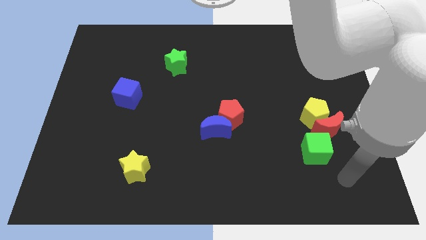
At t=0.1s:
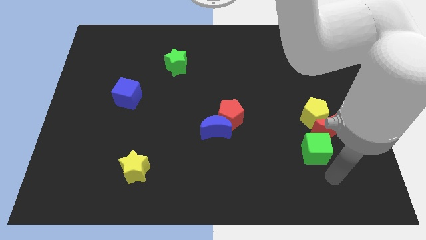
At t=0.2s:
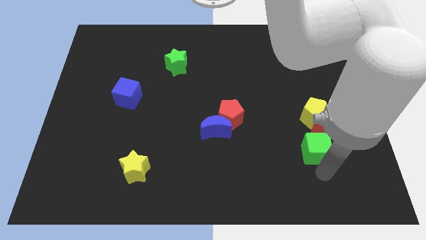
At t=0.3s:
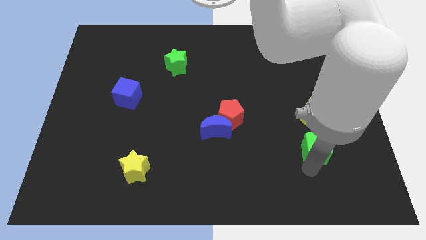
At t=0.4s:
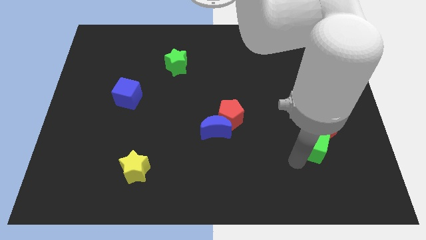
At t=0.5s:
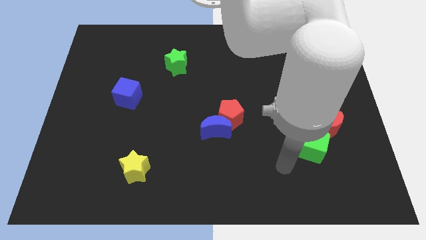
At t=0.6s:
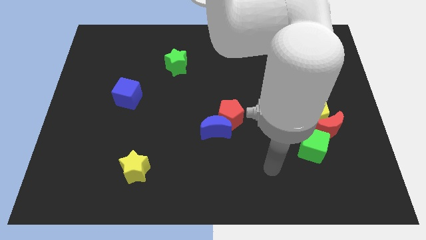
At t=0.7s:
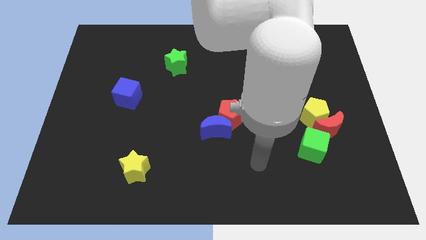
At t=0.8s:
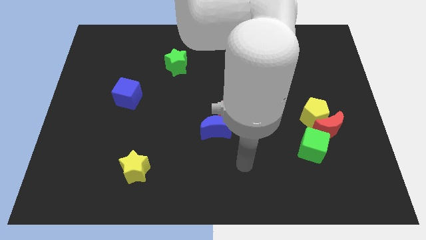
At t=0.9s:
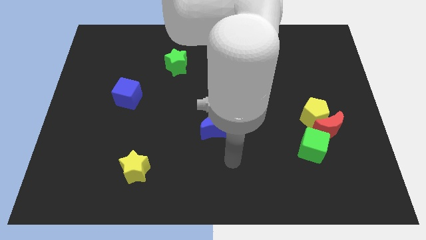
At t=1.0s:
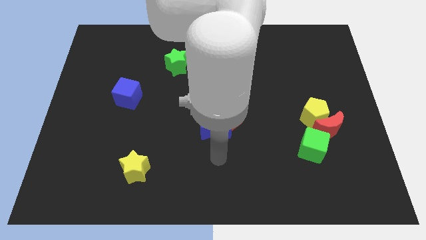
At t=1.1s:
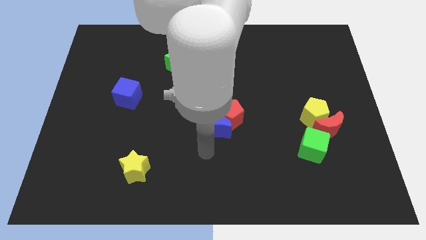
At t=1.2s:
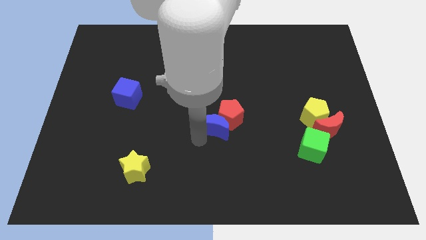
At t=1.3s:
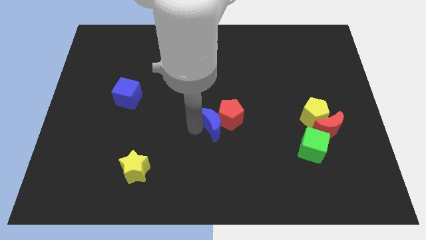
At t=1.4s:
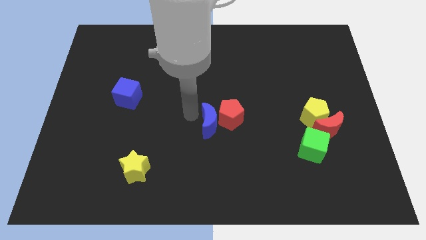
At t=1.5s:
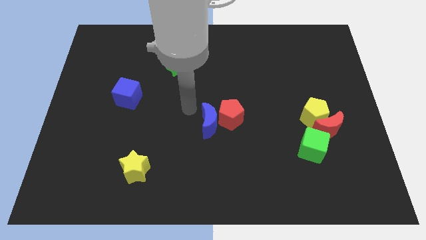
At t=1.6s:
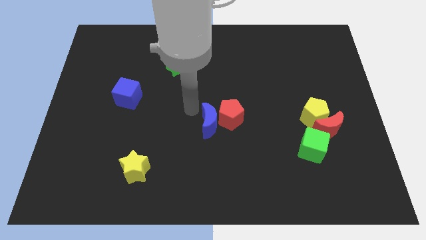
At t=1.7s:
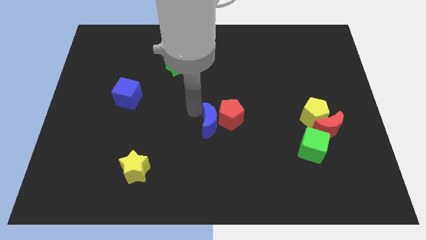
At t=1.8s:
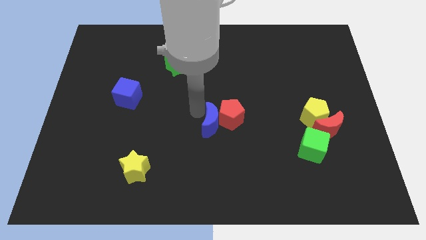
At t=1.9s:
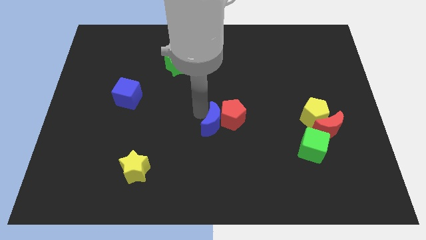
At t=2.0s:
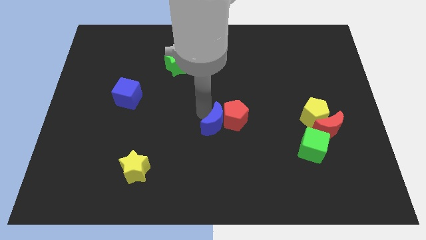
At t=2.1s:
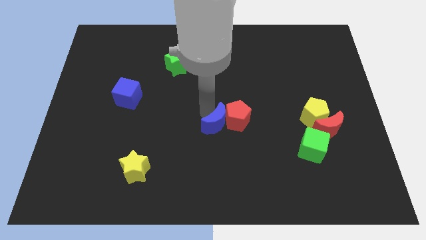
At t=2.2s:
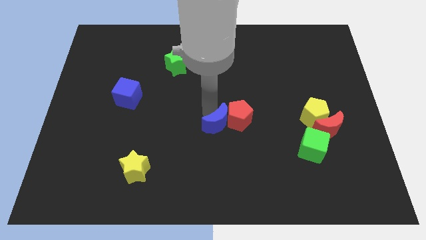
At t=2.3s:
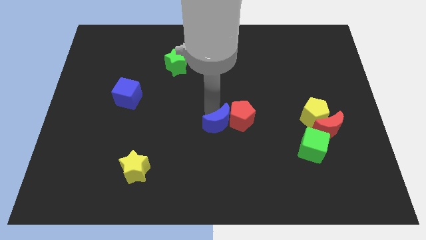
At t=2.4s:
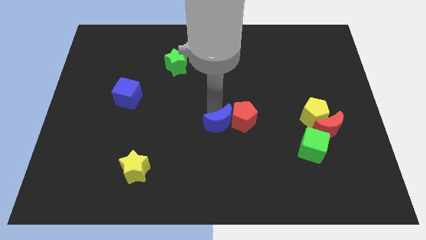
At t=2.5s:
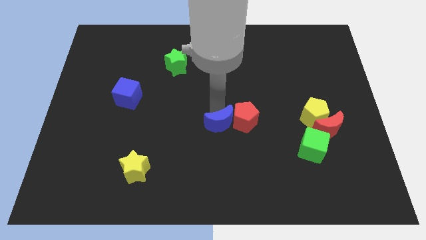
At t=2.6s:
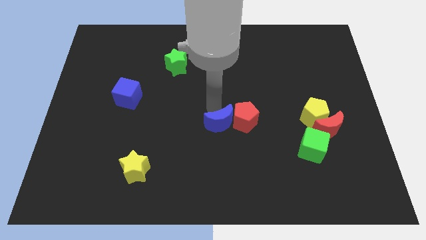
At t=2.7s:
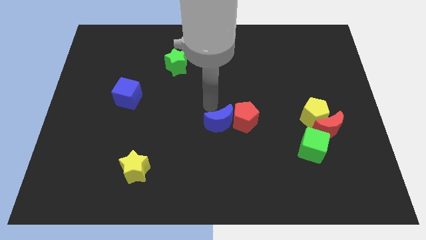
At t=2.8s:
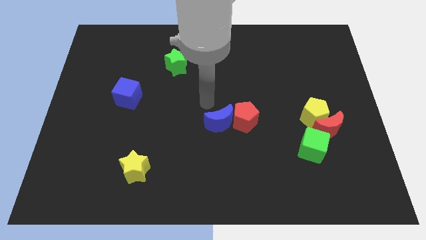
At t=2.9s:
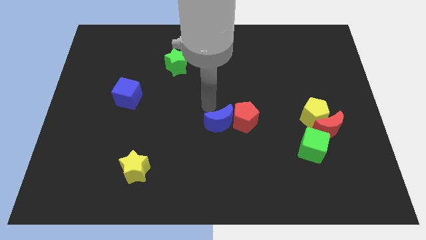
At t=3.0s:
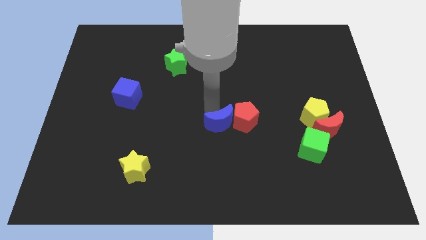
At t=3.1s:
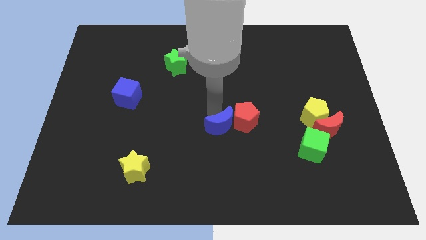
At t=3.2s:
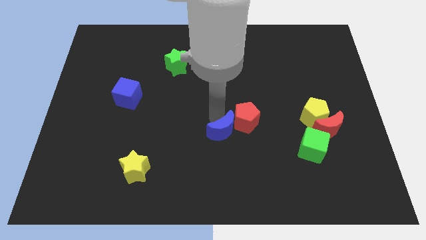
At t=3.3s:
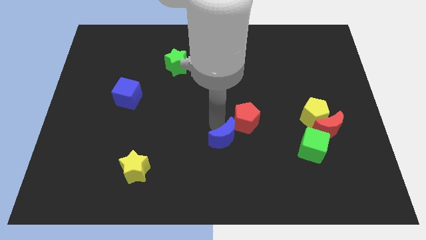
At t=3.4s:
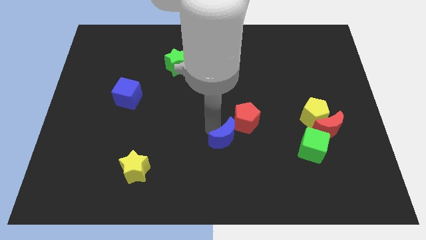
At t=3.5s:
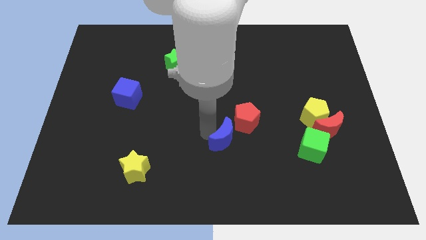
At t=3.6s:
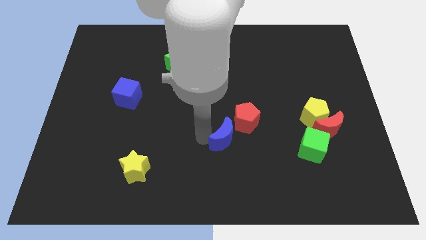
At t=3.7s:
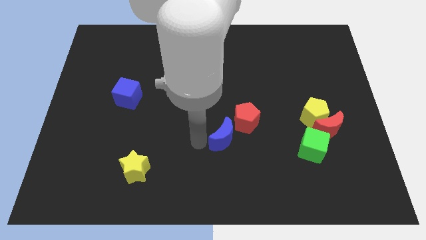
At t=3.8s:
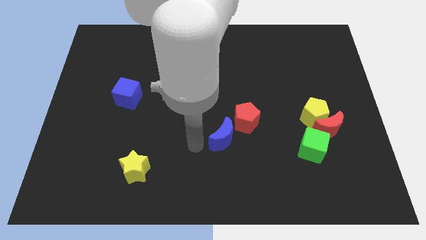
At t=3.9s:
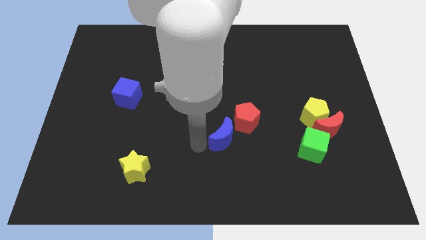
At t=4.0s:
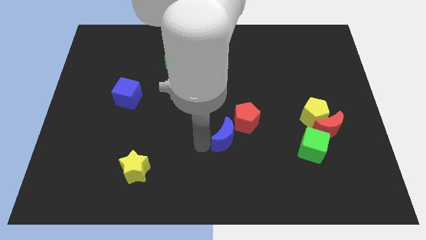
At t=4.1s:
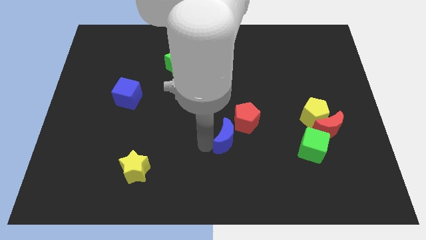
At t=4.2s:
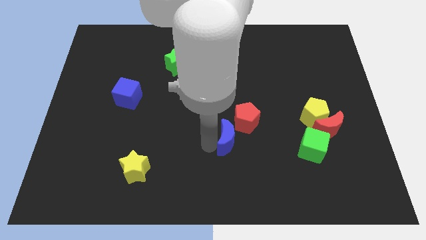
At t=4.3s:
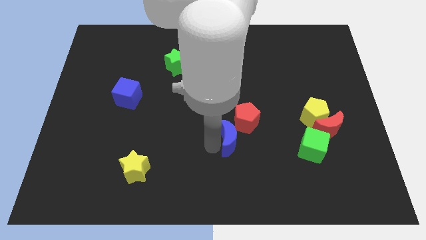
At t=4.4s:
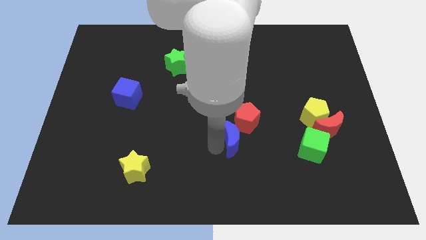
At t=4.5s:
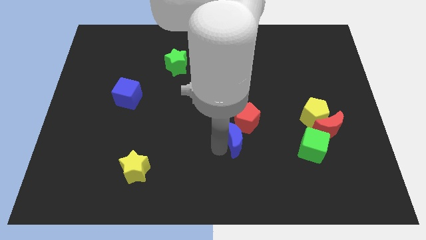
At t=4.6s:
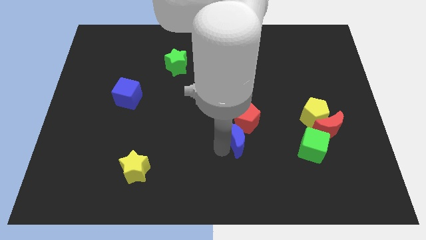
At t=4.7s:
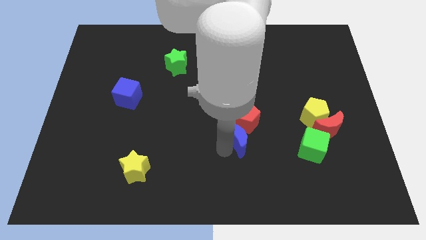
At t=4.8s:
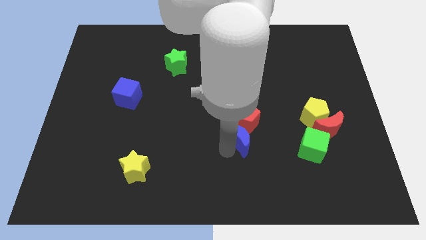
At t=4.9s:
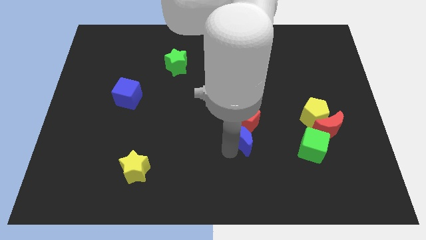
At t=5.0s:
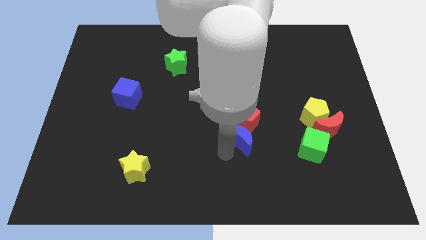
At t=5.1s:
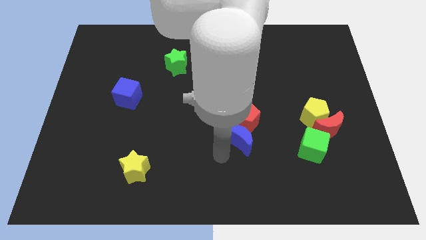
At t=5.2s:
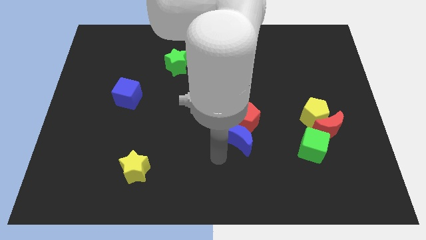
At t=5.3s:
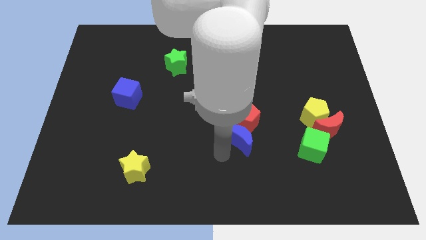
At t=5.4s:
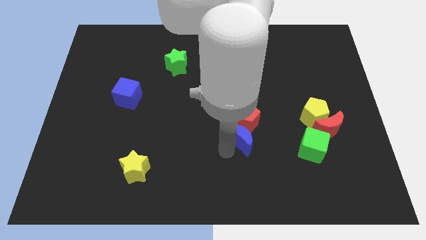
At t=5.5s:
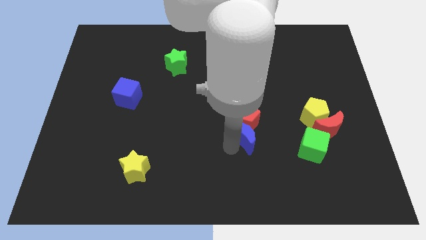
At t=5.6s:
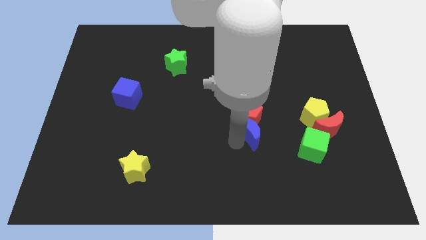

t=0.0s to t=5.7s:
slightly move the blue moon right

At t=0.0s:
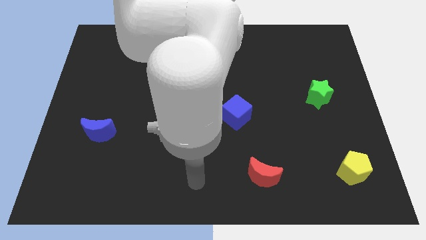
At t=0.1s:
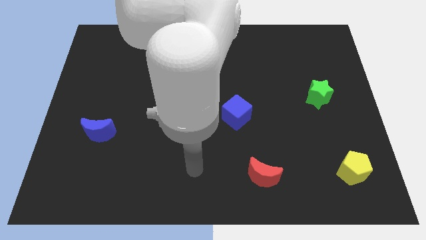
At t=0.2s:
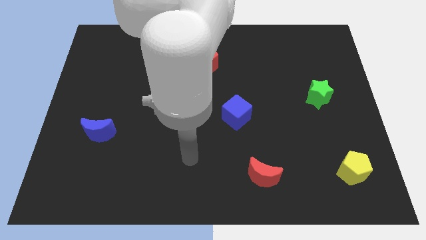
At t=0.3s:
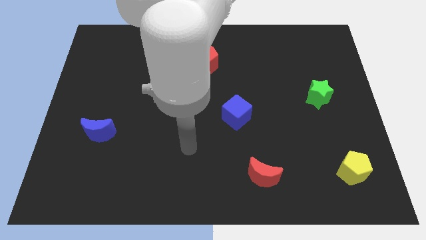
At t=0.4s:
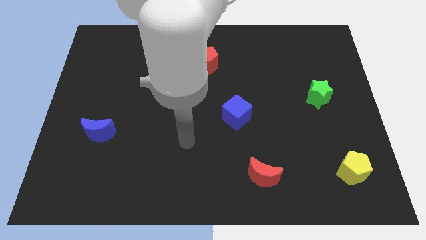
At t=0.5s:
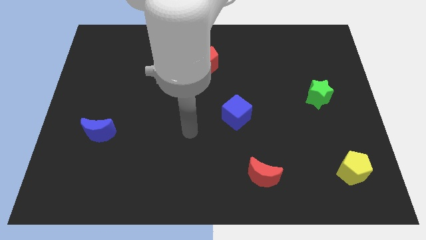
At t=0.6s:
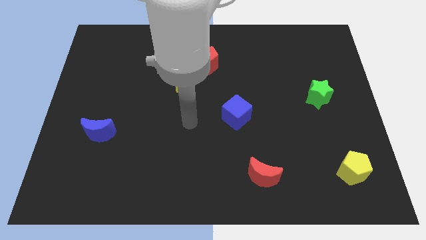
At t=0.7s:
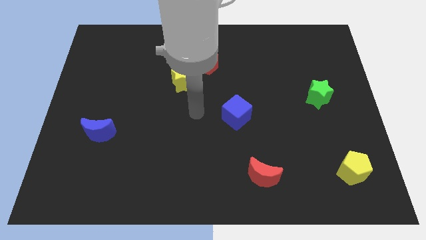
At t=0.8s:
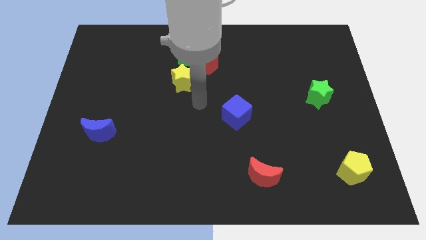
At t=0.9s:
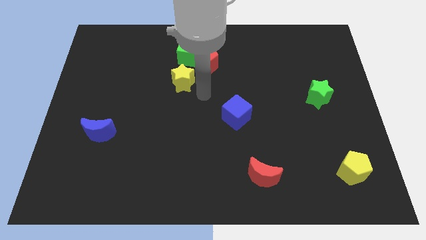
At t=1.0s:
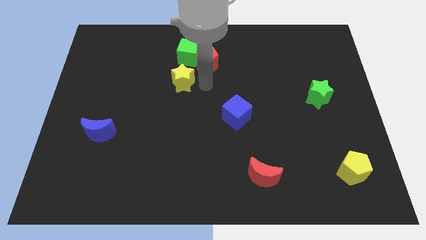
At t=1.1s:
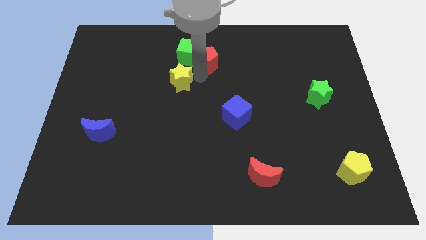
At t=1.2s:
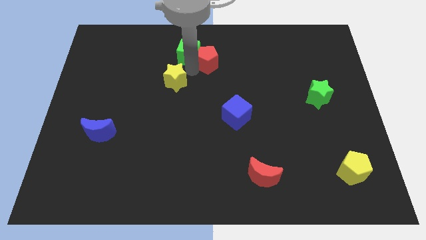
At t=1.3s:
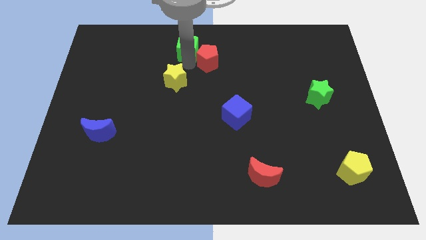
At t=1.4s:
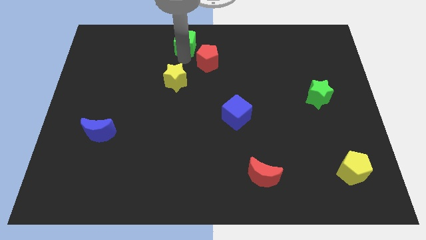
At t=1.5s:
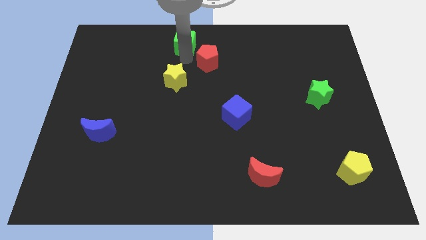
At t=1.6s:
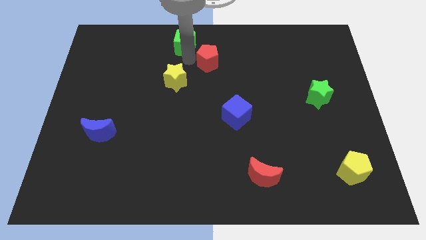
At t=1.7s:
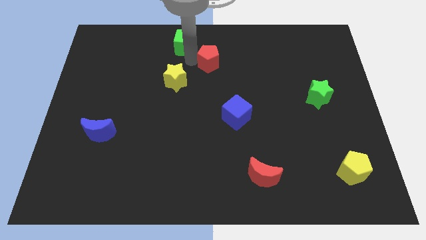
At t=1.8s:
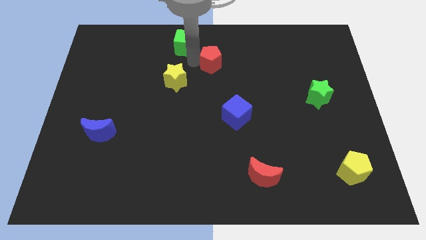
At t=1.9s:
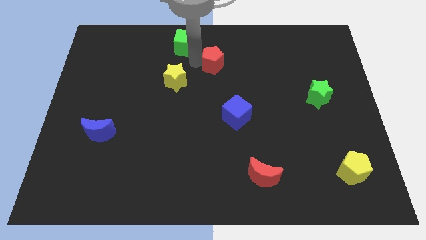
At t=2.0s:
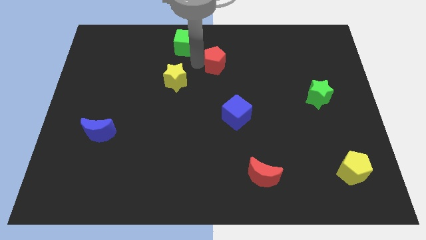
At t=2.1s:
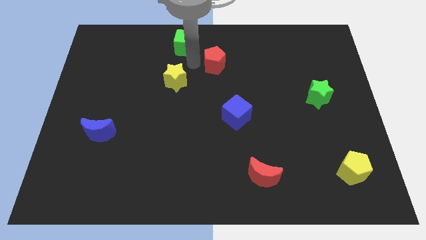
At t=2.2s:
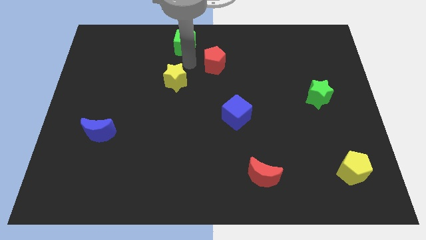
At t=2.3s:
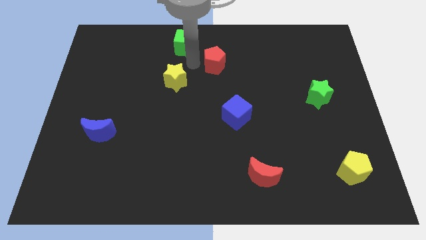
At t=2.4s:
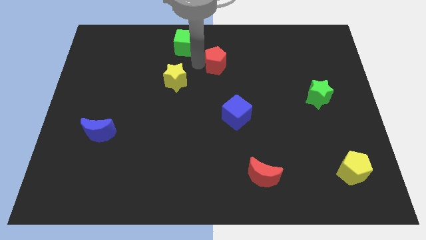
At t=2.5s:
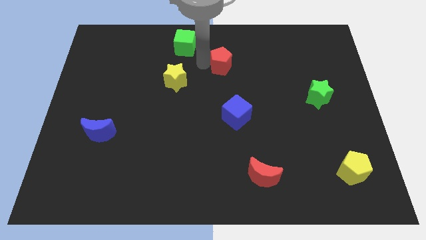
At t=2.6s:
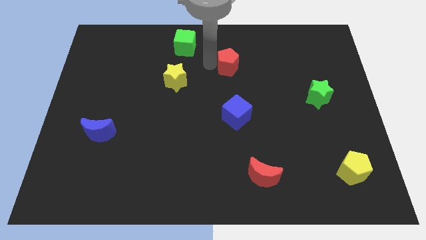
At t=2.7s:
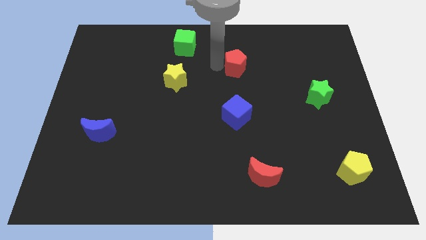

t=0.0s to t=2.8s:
push the red pentagon a bit right
